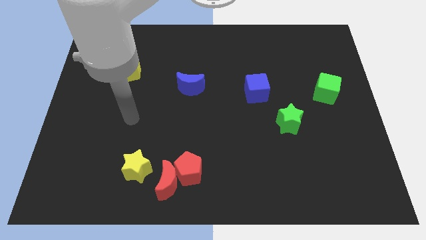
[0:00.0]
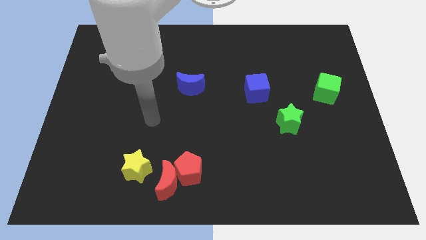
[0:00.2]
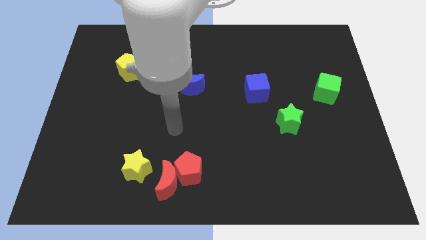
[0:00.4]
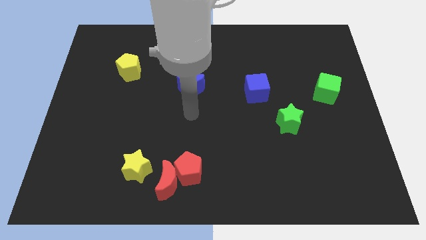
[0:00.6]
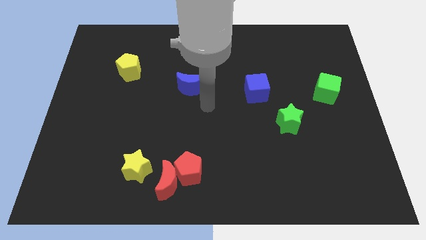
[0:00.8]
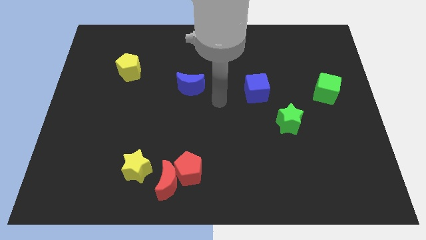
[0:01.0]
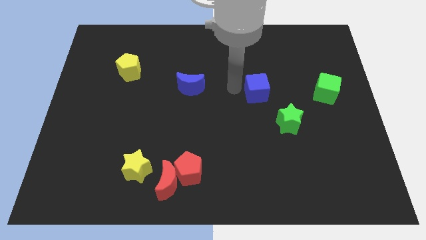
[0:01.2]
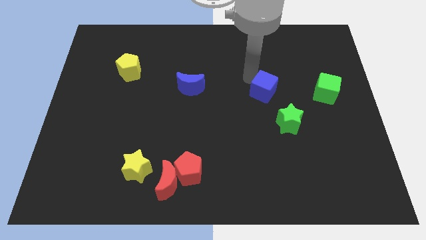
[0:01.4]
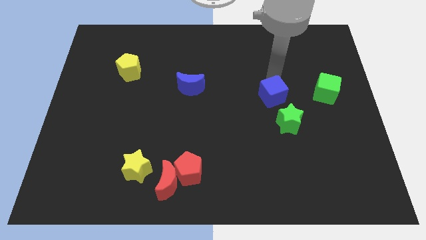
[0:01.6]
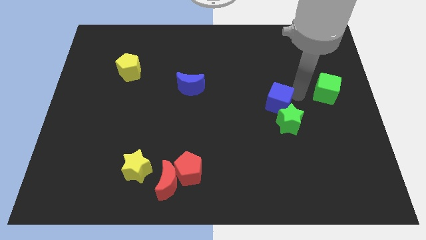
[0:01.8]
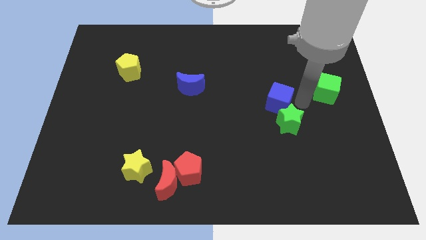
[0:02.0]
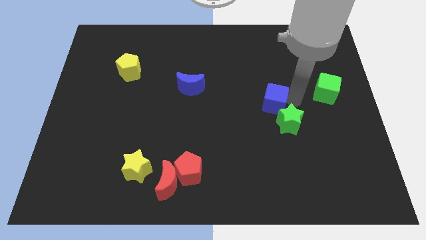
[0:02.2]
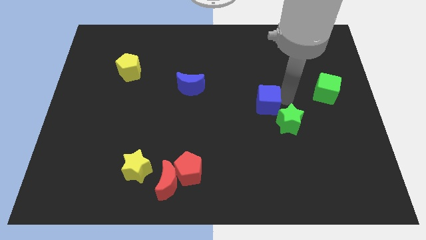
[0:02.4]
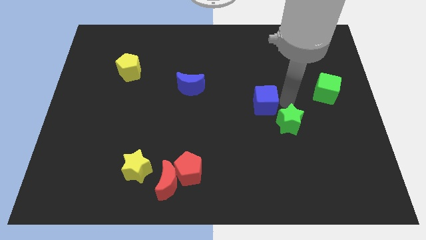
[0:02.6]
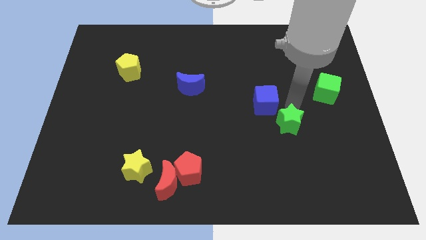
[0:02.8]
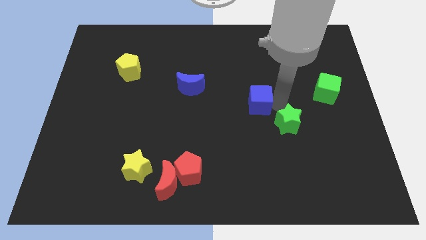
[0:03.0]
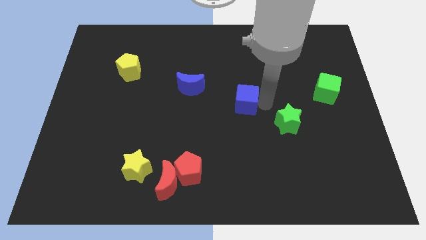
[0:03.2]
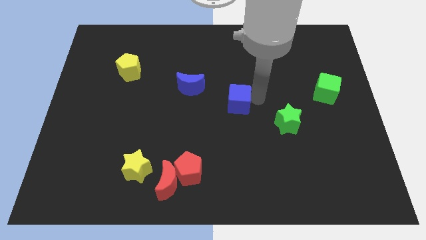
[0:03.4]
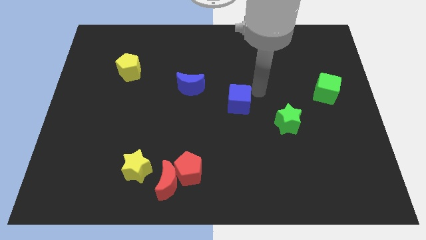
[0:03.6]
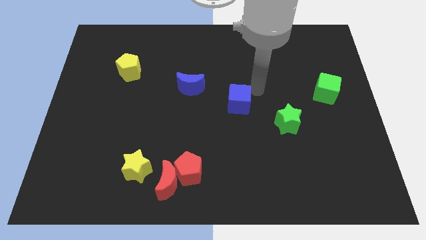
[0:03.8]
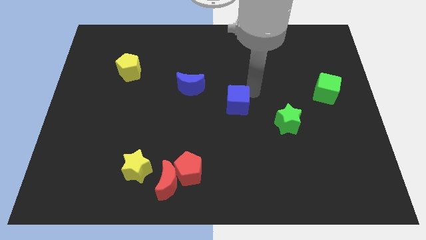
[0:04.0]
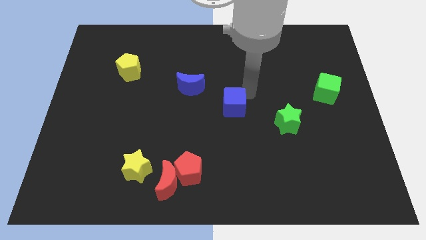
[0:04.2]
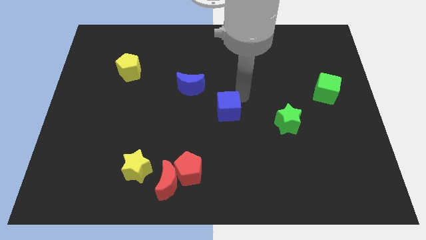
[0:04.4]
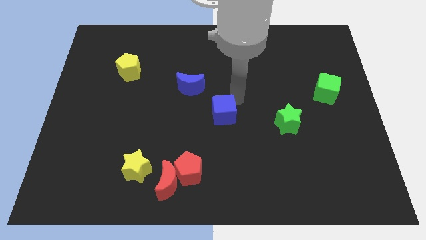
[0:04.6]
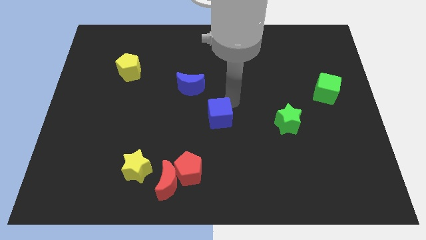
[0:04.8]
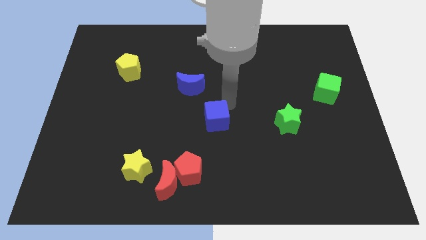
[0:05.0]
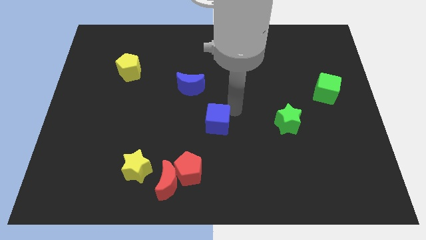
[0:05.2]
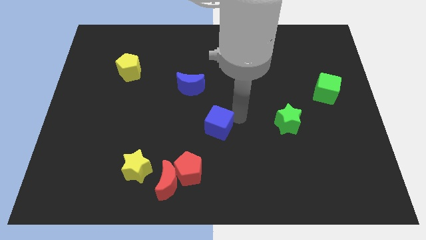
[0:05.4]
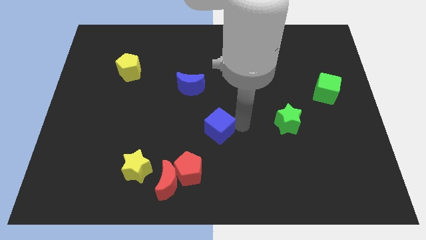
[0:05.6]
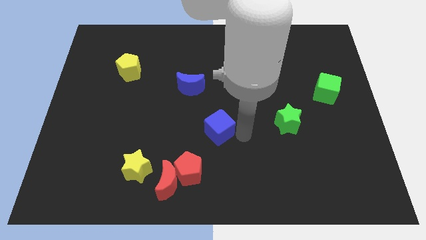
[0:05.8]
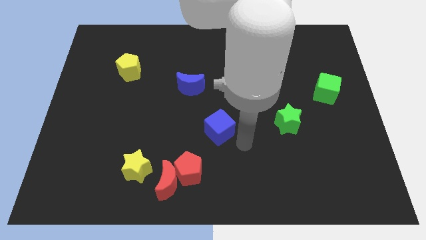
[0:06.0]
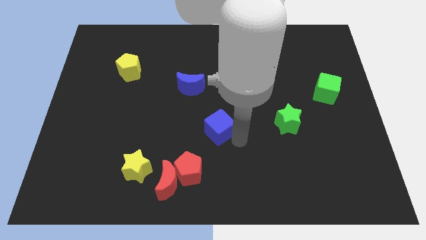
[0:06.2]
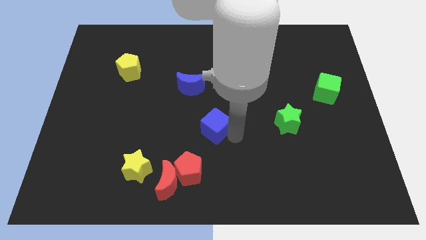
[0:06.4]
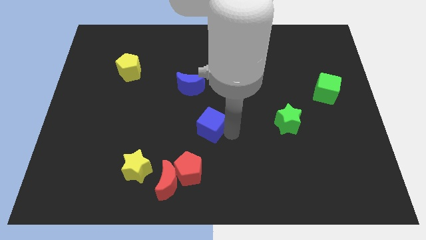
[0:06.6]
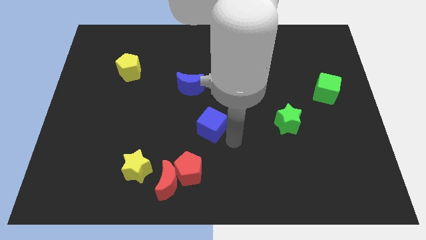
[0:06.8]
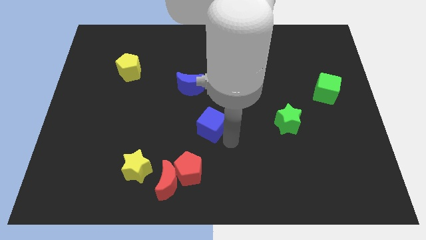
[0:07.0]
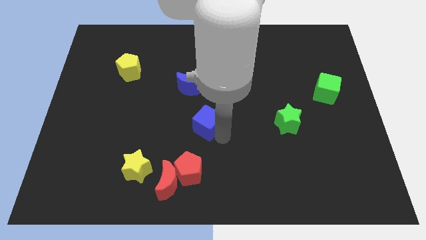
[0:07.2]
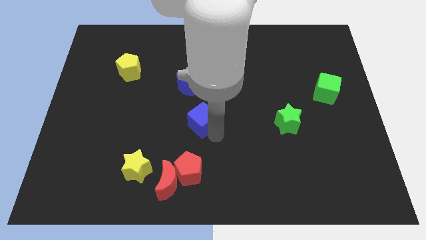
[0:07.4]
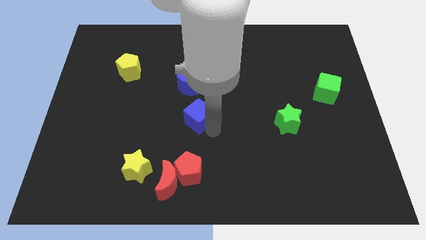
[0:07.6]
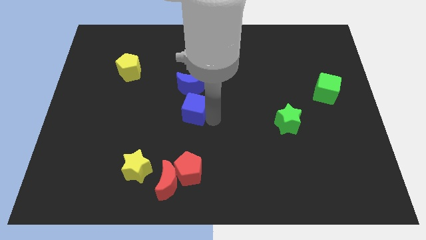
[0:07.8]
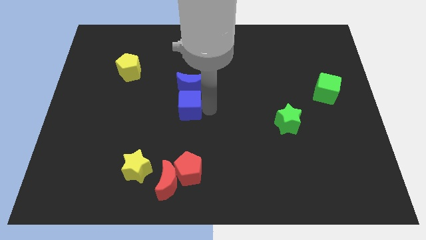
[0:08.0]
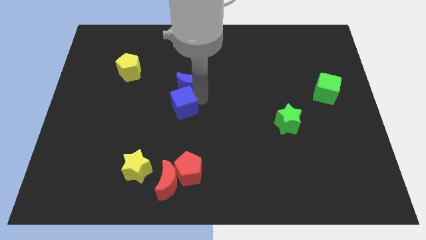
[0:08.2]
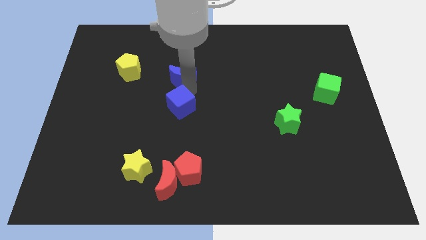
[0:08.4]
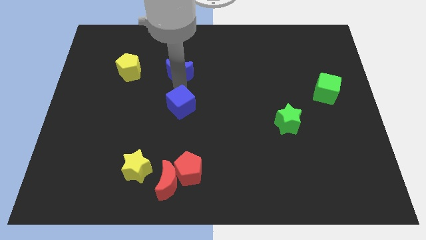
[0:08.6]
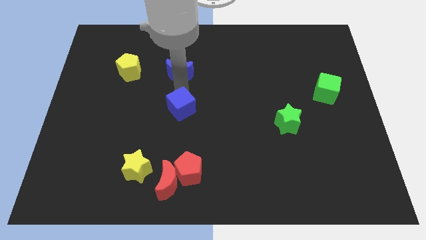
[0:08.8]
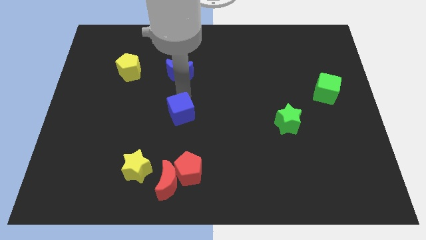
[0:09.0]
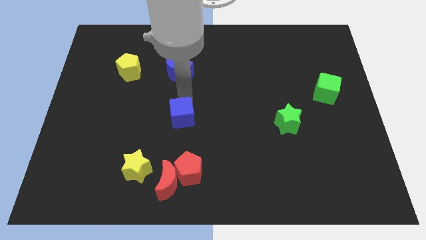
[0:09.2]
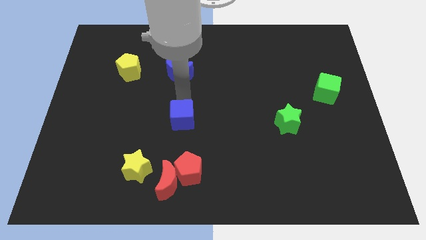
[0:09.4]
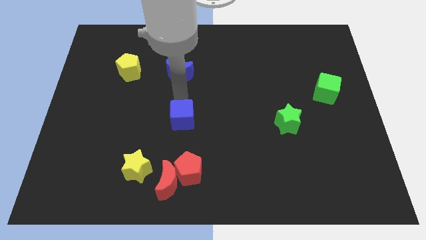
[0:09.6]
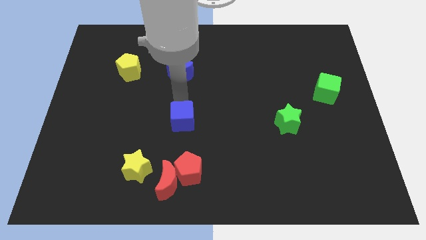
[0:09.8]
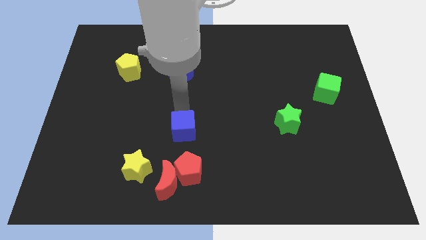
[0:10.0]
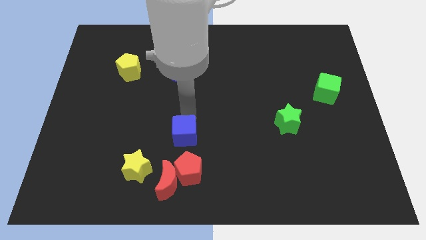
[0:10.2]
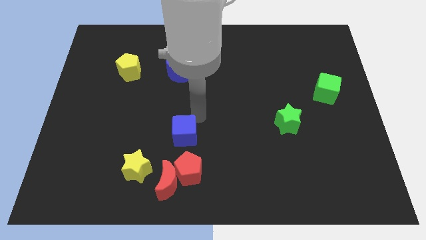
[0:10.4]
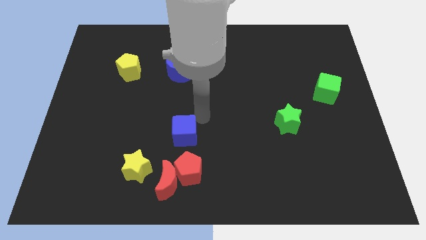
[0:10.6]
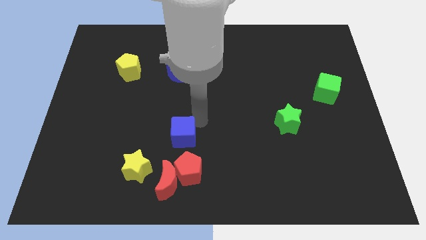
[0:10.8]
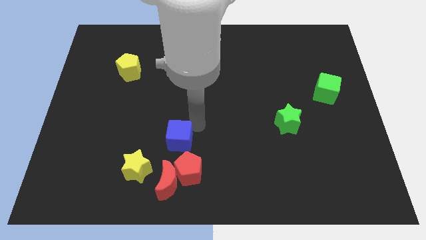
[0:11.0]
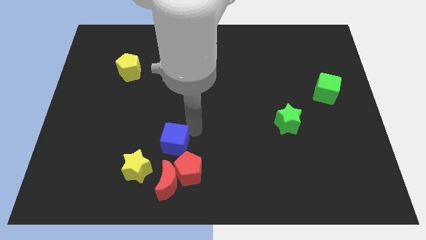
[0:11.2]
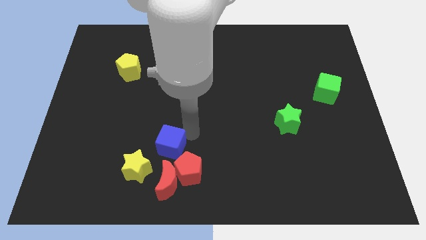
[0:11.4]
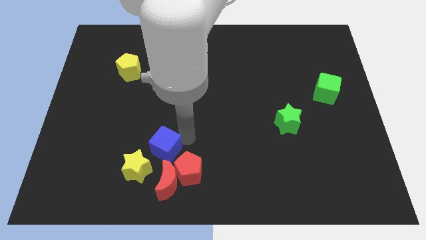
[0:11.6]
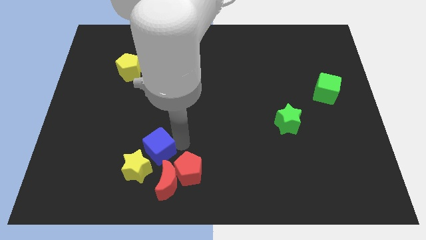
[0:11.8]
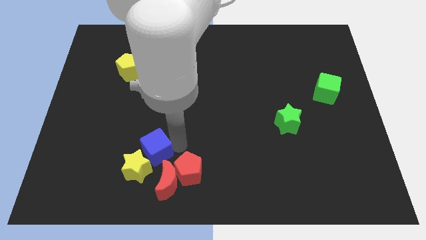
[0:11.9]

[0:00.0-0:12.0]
put the blue cube towards the yellow star

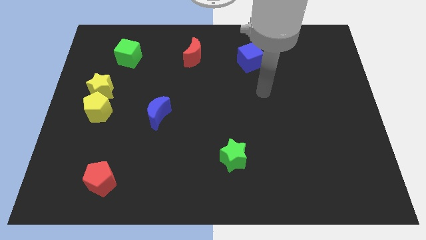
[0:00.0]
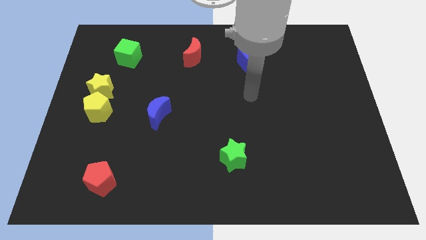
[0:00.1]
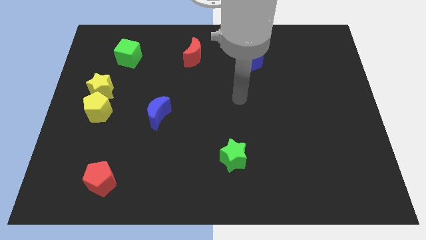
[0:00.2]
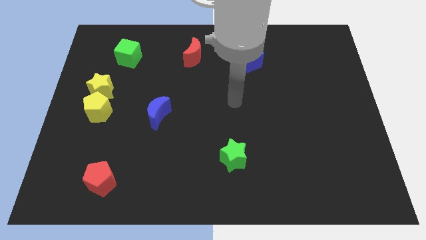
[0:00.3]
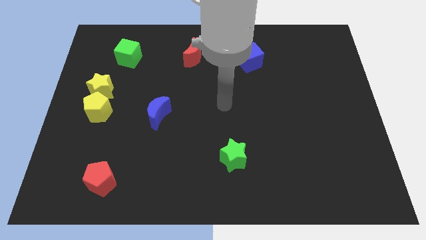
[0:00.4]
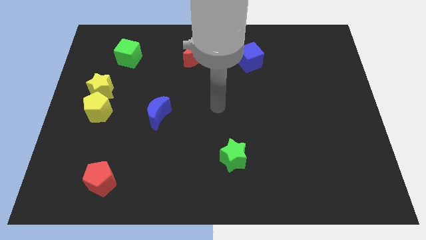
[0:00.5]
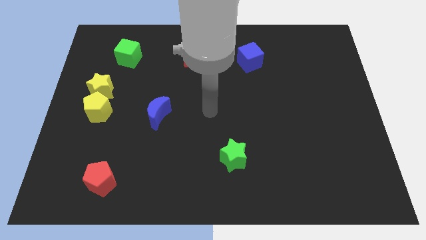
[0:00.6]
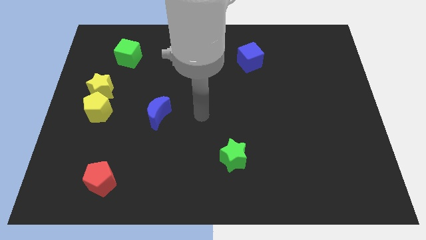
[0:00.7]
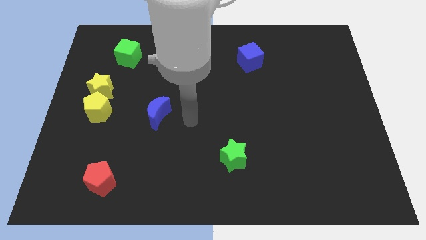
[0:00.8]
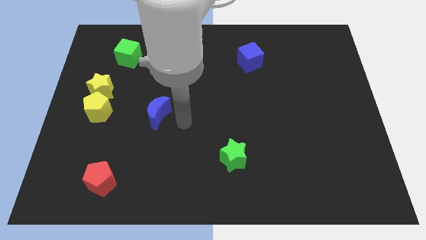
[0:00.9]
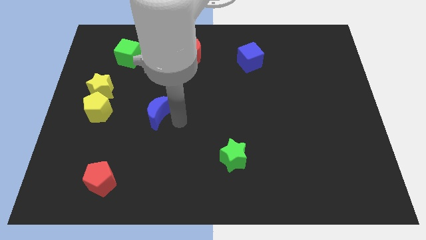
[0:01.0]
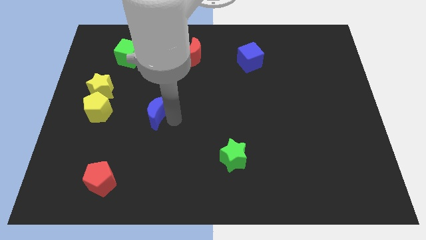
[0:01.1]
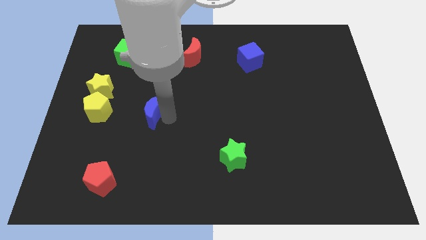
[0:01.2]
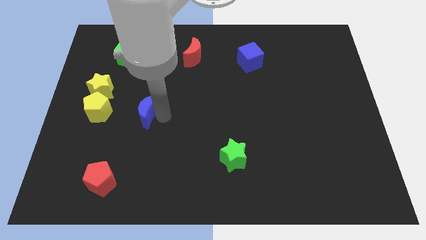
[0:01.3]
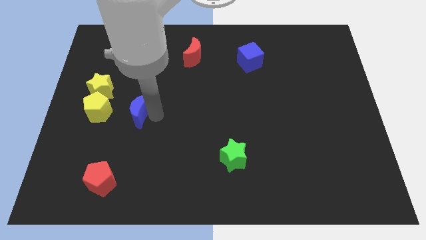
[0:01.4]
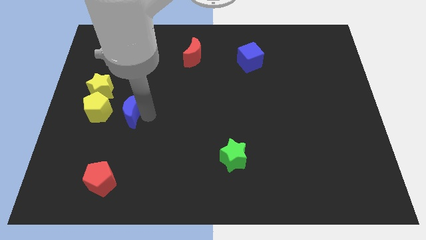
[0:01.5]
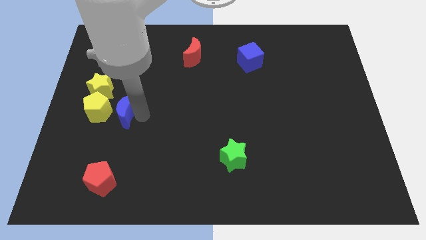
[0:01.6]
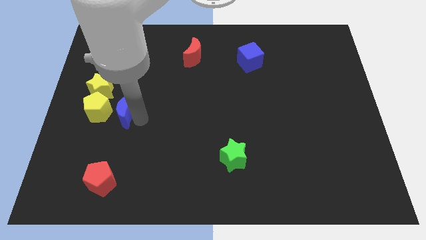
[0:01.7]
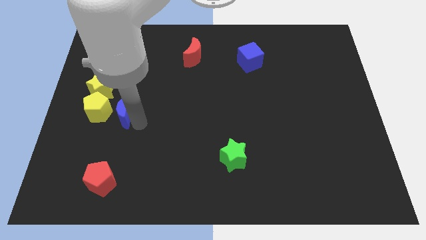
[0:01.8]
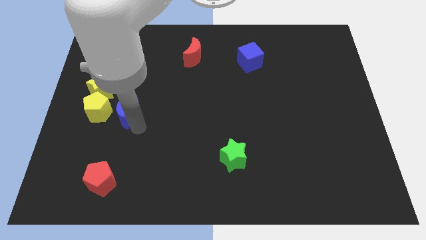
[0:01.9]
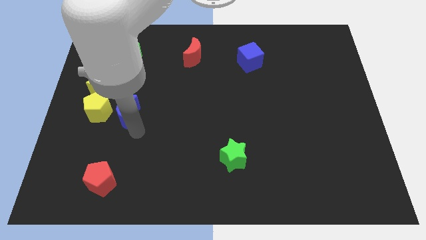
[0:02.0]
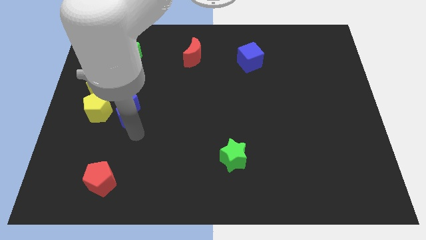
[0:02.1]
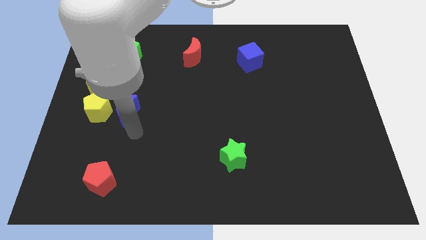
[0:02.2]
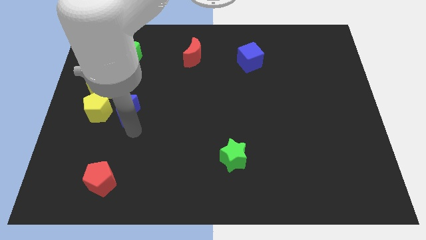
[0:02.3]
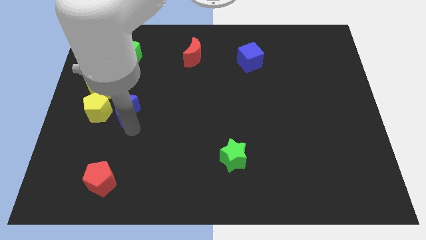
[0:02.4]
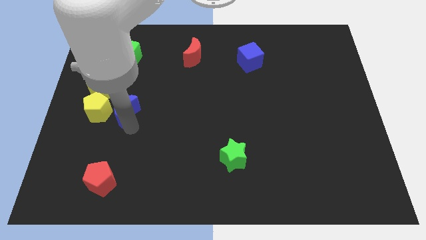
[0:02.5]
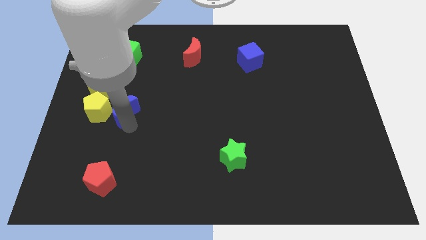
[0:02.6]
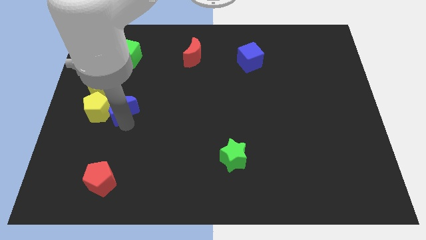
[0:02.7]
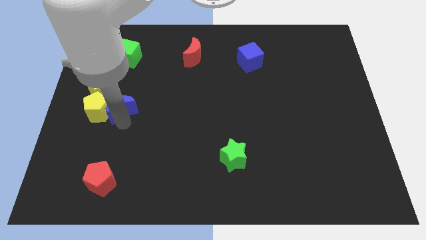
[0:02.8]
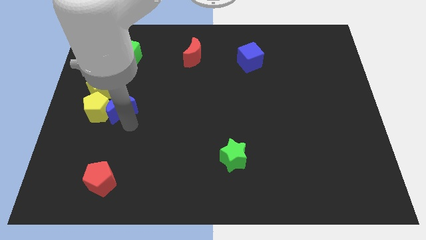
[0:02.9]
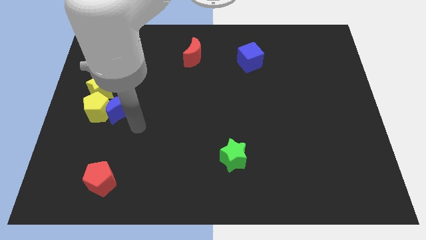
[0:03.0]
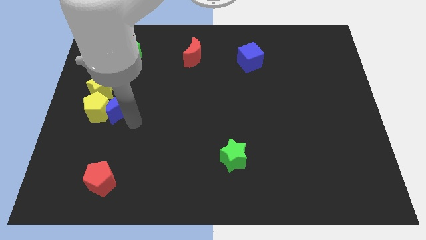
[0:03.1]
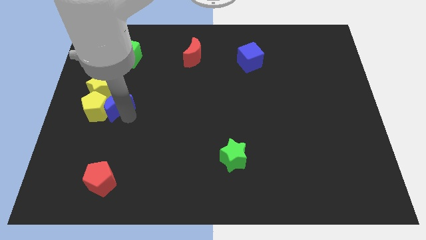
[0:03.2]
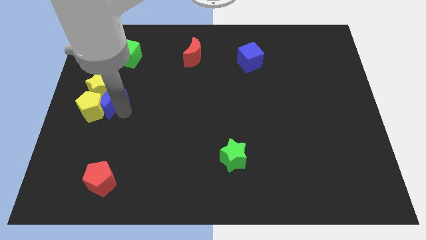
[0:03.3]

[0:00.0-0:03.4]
push the blue moon to the yellow star
